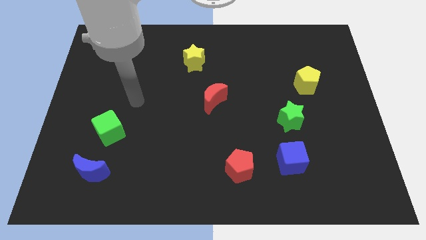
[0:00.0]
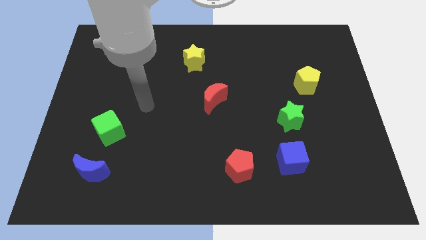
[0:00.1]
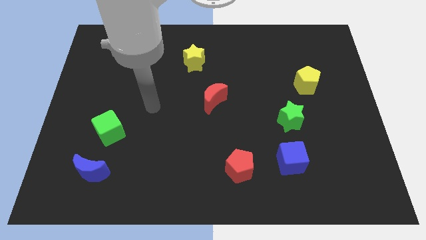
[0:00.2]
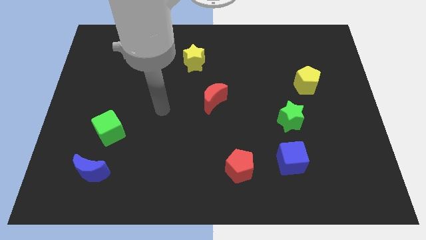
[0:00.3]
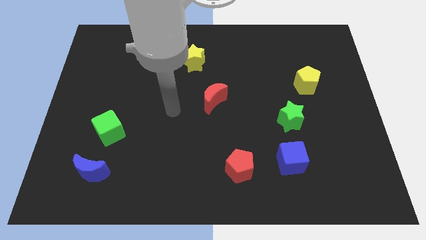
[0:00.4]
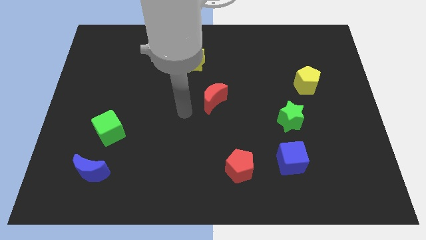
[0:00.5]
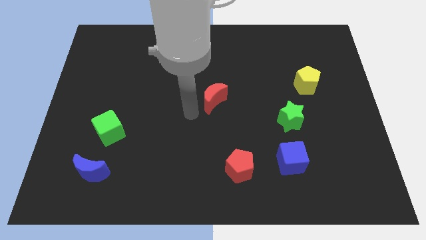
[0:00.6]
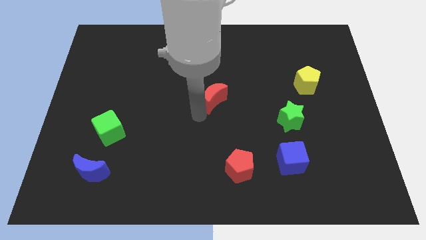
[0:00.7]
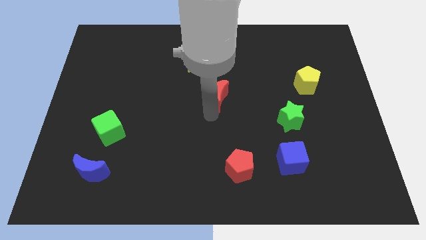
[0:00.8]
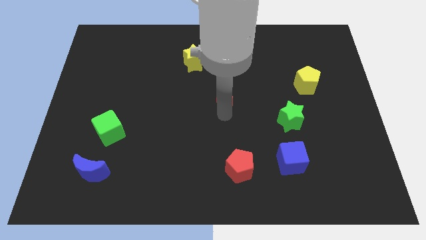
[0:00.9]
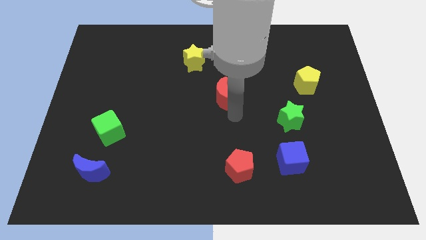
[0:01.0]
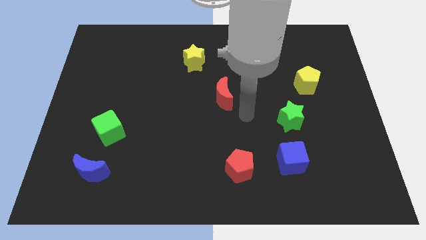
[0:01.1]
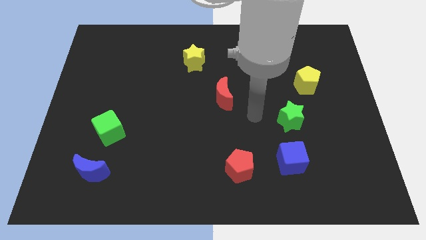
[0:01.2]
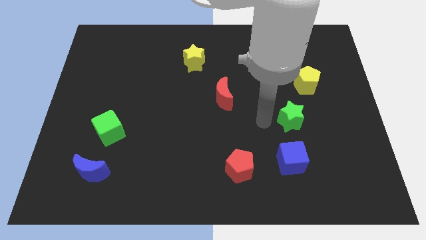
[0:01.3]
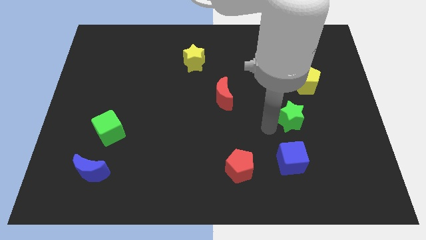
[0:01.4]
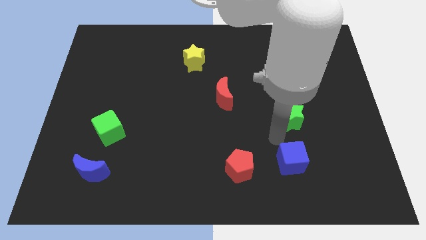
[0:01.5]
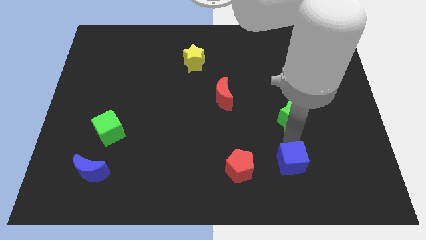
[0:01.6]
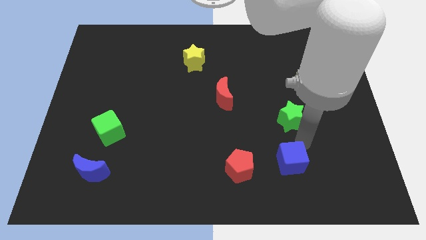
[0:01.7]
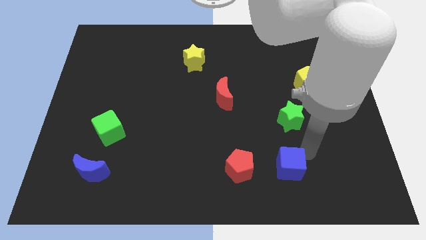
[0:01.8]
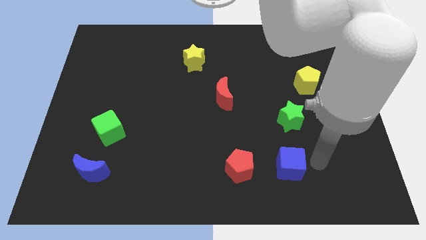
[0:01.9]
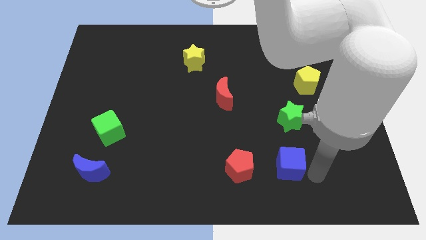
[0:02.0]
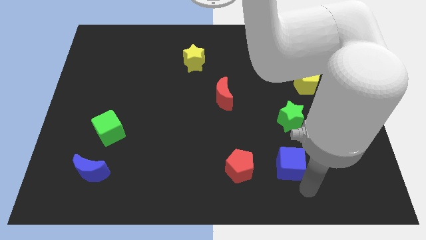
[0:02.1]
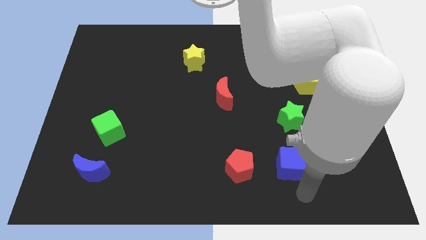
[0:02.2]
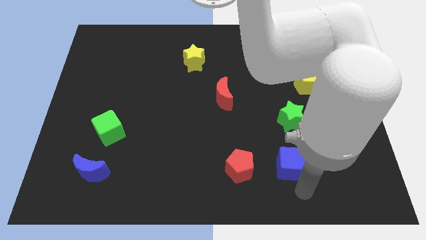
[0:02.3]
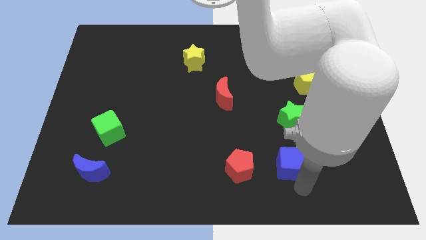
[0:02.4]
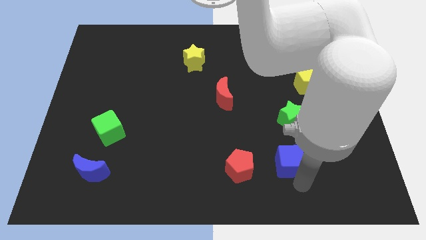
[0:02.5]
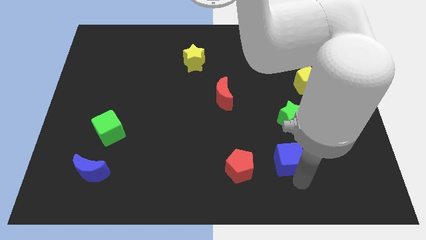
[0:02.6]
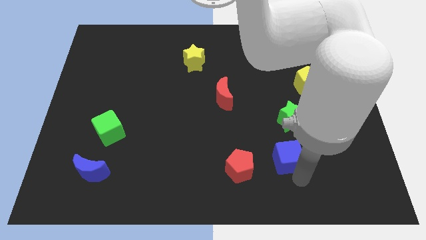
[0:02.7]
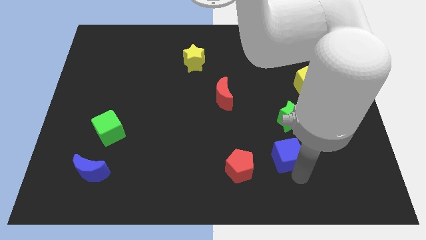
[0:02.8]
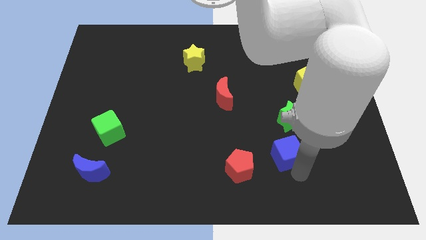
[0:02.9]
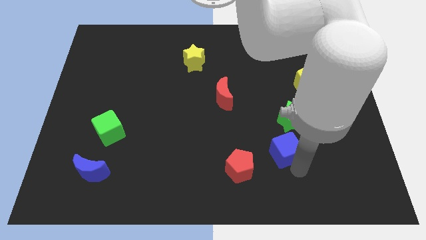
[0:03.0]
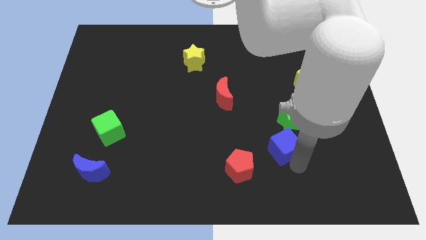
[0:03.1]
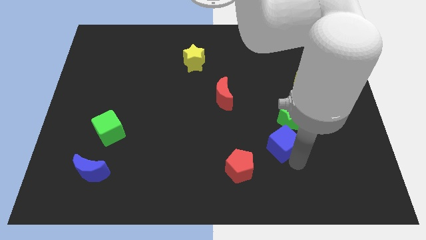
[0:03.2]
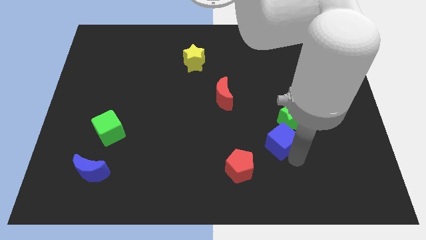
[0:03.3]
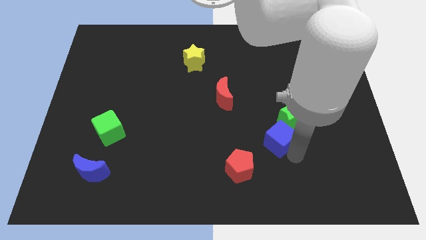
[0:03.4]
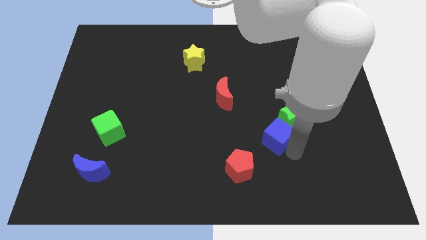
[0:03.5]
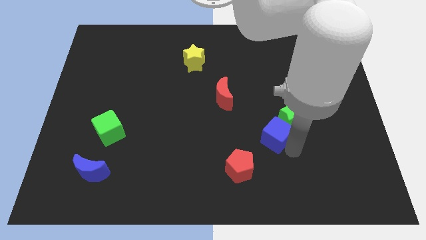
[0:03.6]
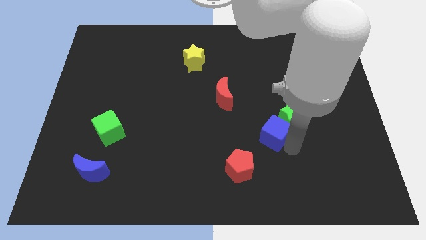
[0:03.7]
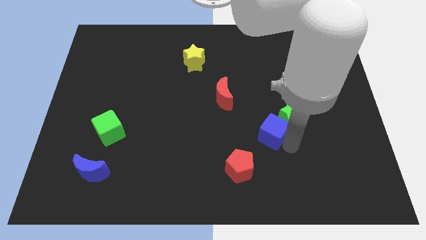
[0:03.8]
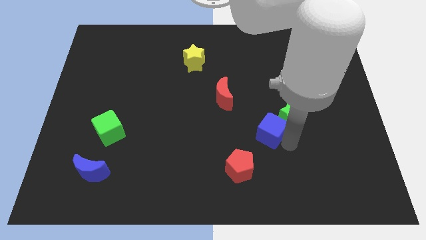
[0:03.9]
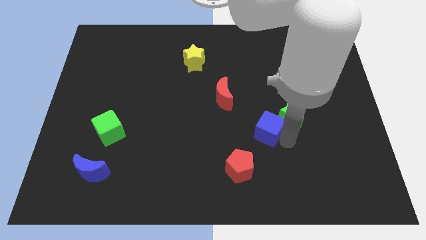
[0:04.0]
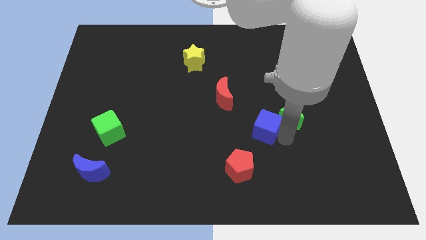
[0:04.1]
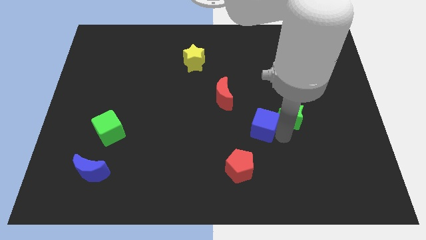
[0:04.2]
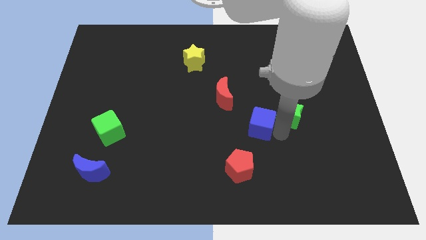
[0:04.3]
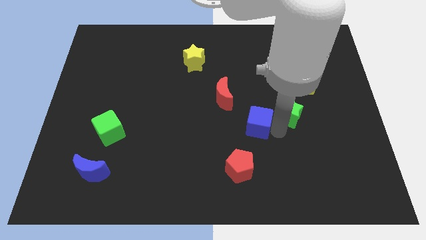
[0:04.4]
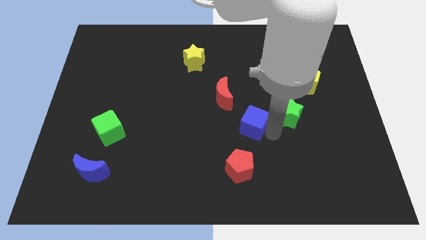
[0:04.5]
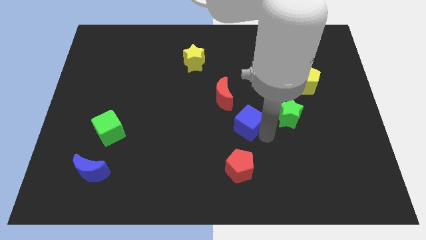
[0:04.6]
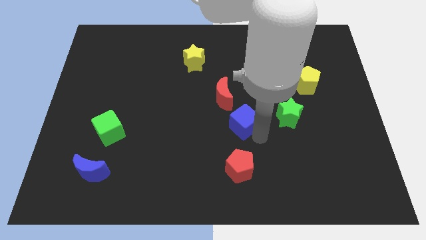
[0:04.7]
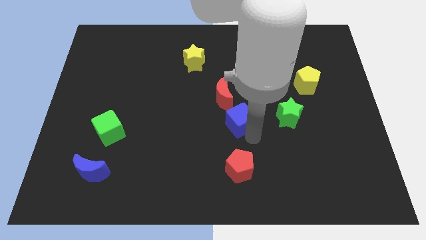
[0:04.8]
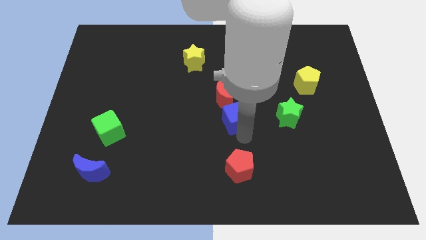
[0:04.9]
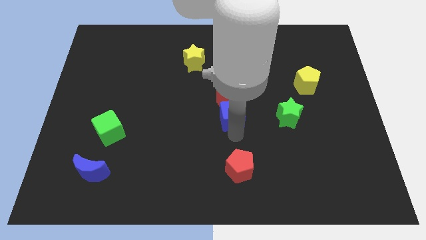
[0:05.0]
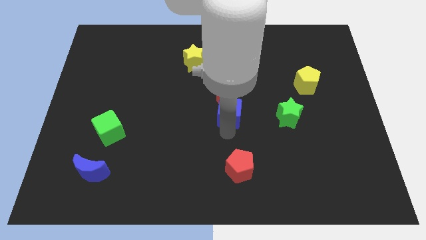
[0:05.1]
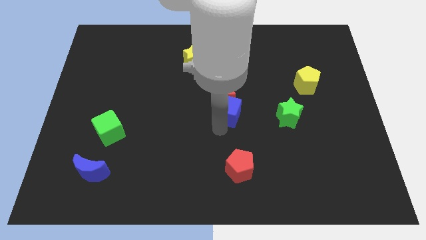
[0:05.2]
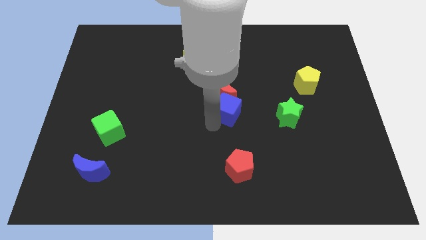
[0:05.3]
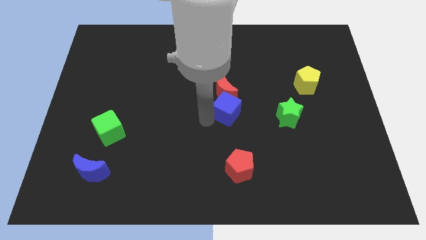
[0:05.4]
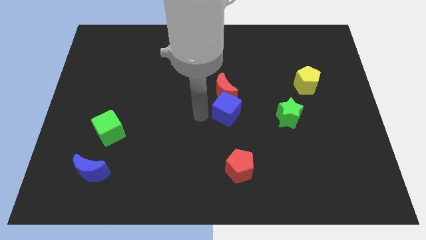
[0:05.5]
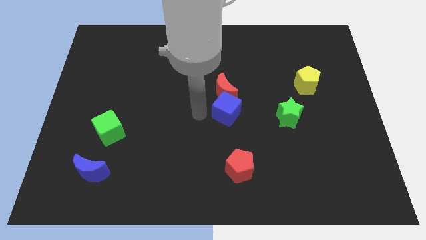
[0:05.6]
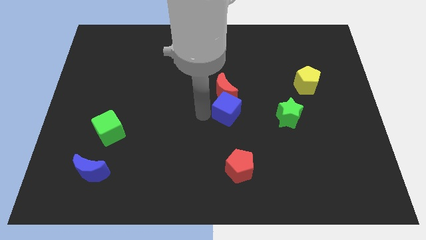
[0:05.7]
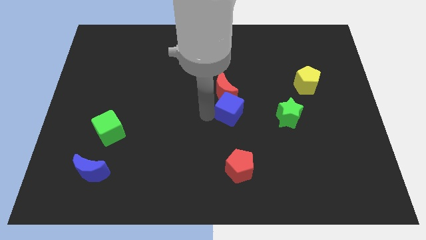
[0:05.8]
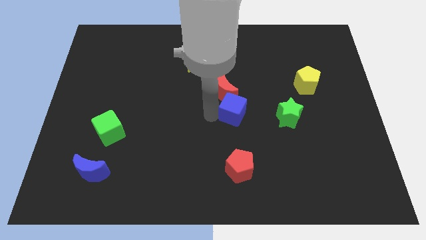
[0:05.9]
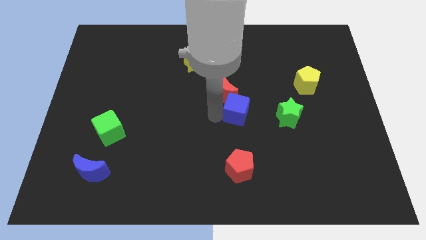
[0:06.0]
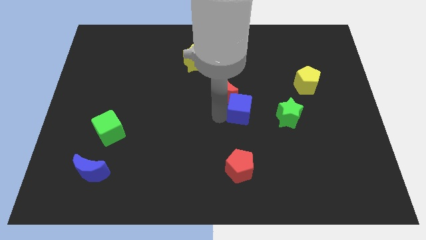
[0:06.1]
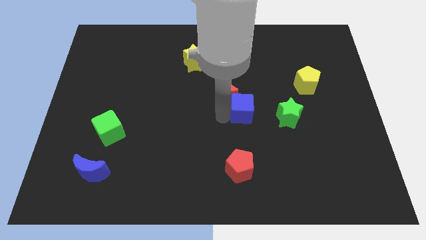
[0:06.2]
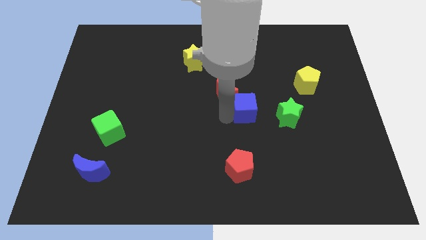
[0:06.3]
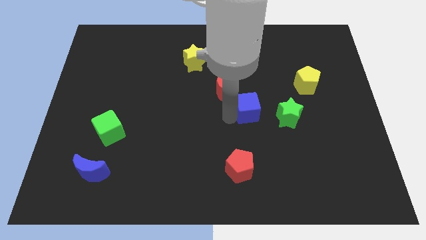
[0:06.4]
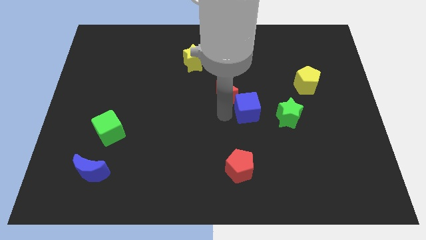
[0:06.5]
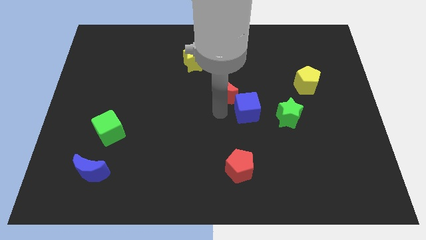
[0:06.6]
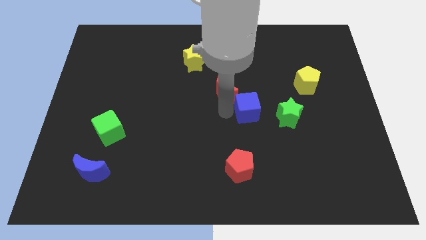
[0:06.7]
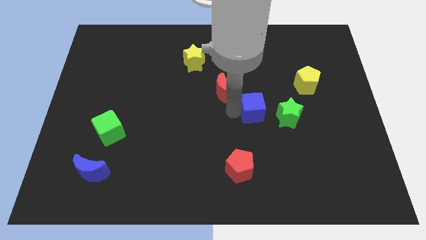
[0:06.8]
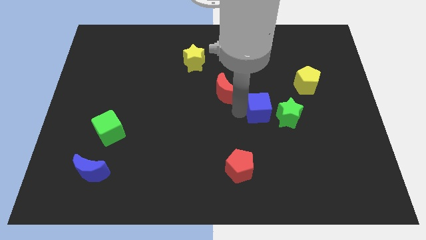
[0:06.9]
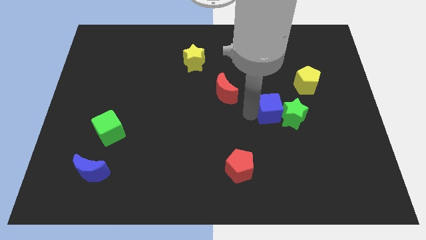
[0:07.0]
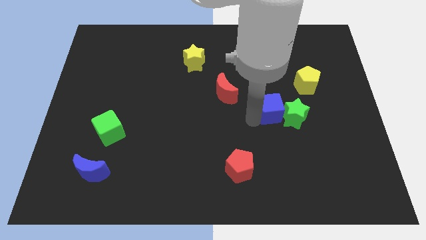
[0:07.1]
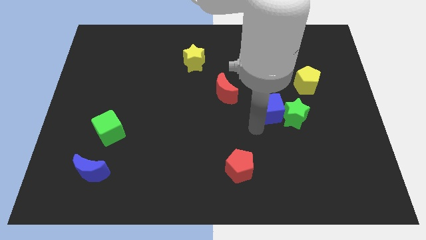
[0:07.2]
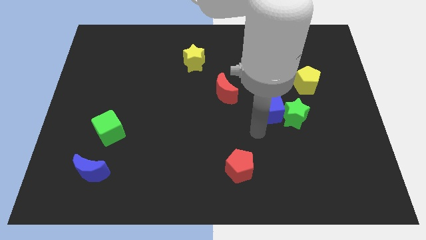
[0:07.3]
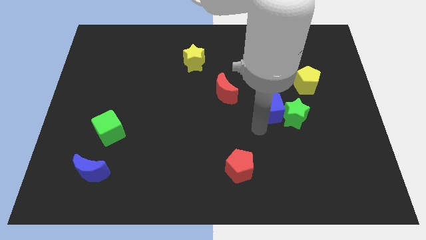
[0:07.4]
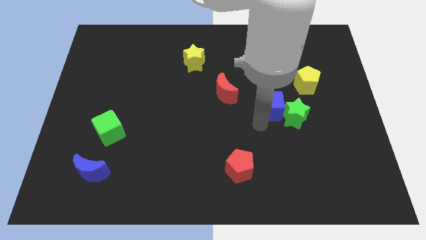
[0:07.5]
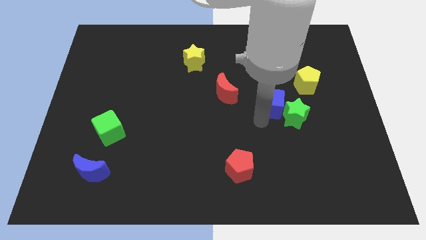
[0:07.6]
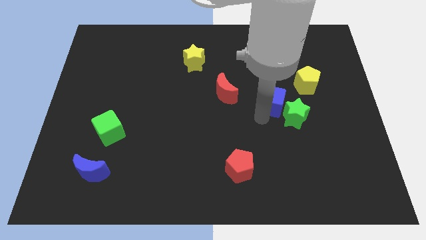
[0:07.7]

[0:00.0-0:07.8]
put the blue cube to the top side of the green star

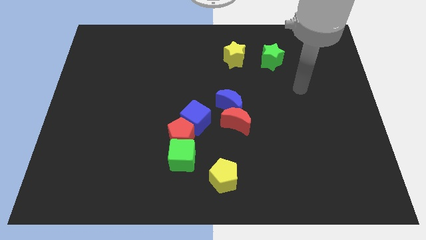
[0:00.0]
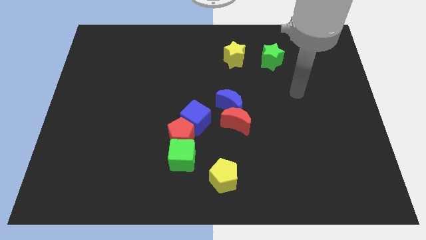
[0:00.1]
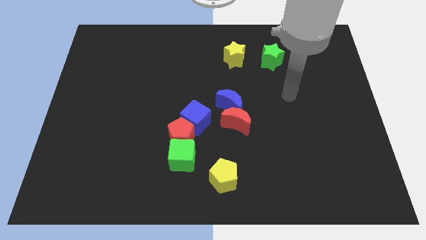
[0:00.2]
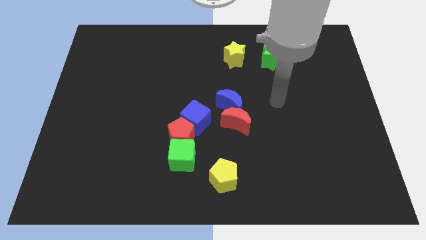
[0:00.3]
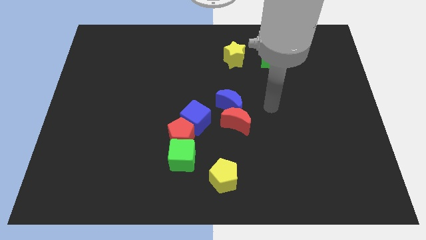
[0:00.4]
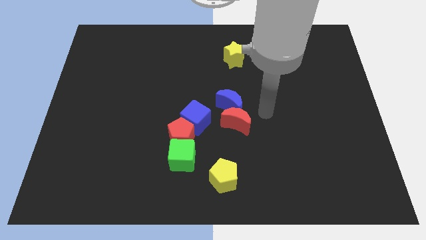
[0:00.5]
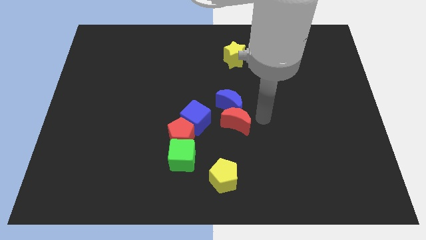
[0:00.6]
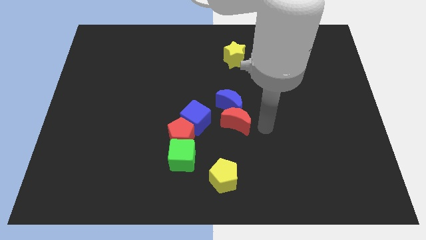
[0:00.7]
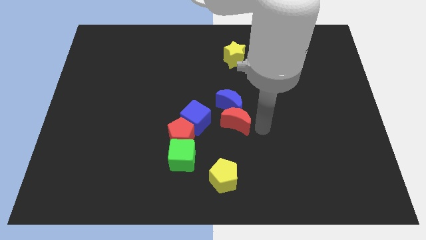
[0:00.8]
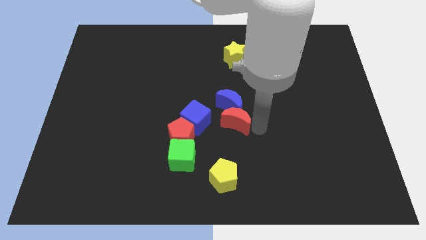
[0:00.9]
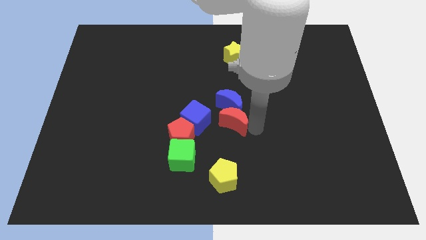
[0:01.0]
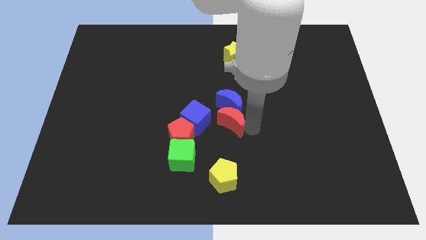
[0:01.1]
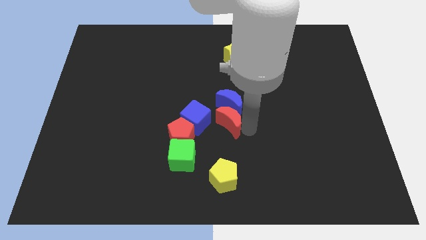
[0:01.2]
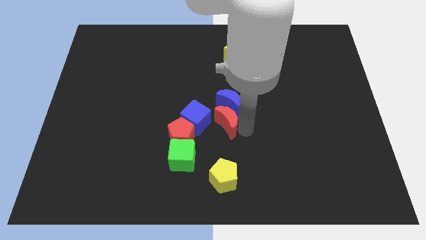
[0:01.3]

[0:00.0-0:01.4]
slide the red moon to the top right side of the red pentagon
